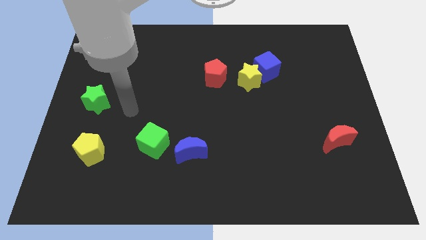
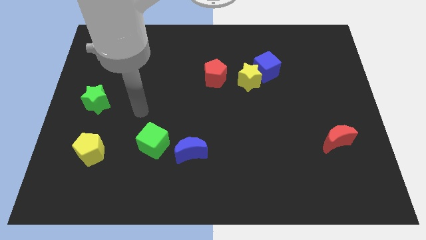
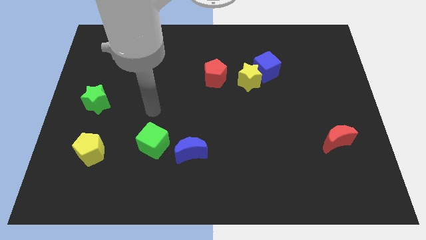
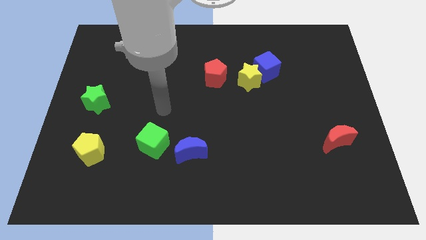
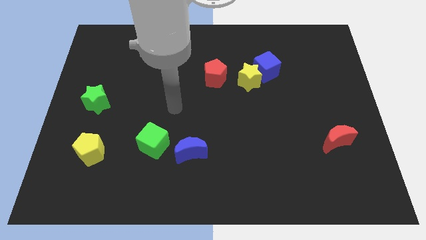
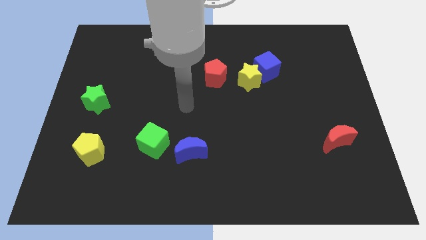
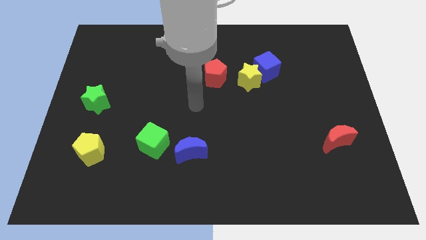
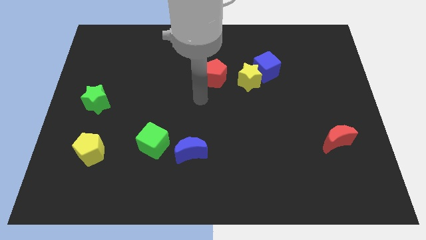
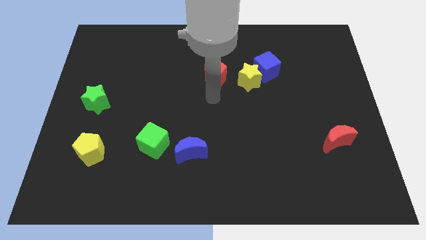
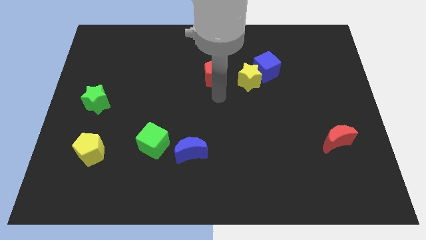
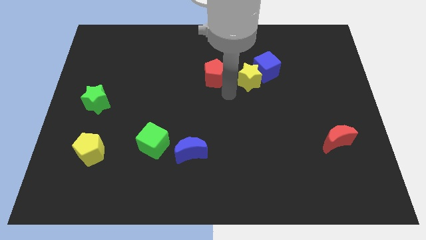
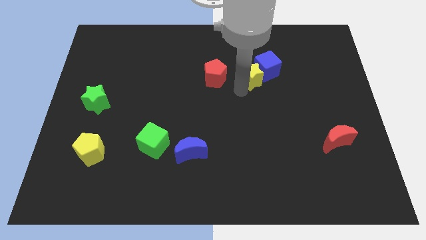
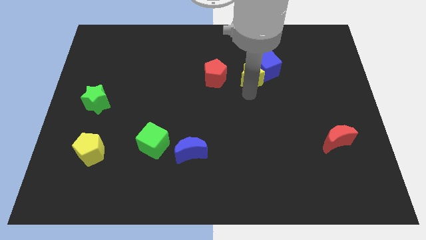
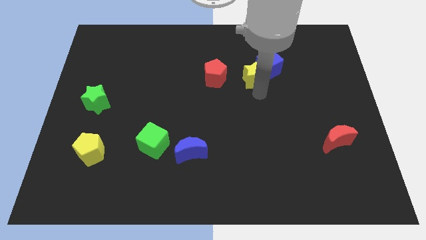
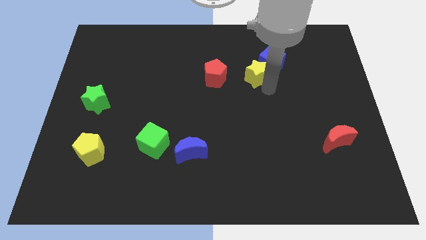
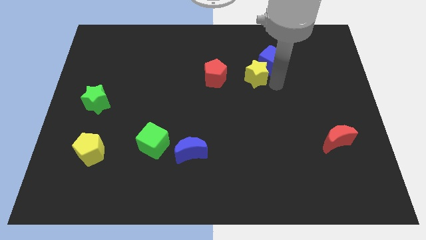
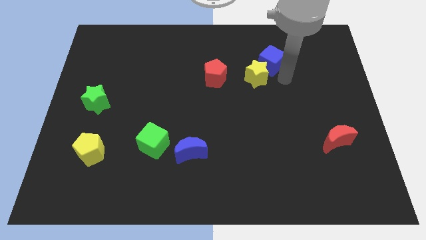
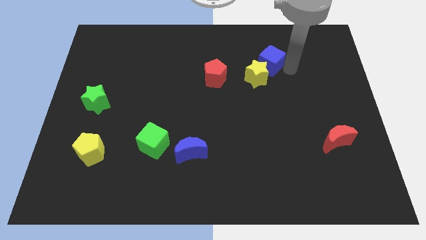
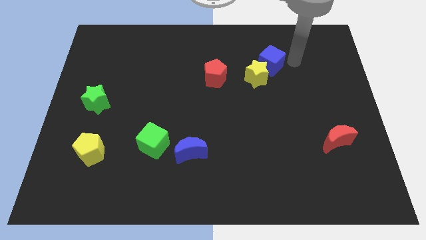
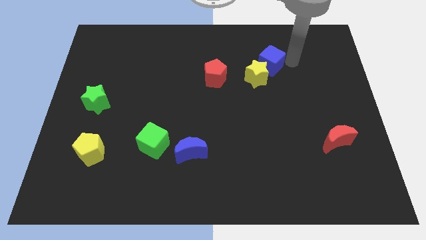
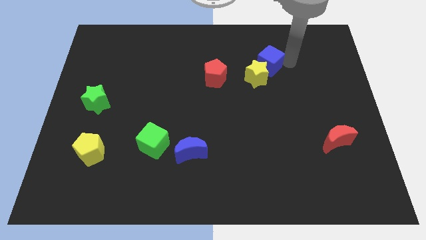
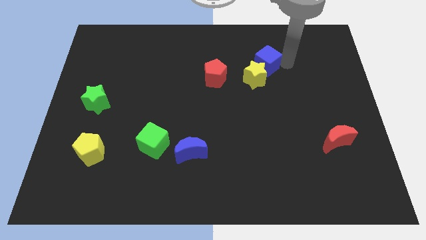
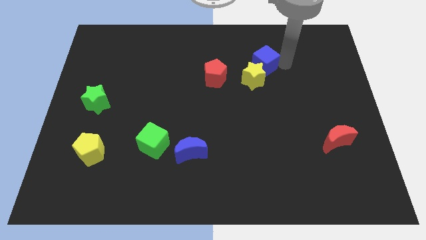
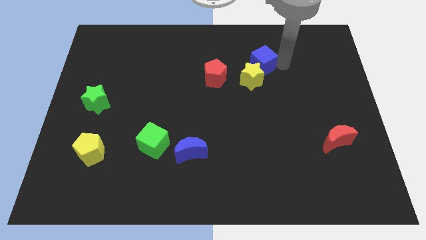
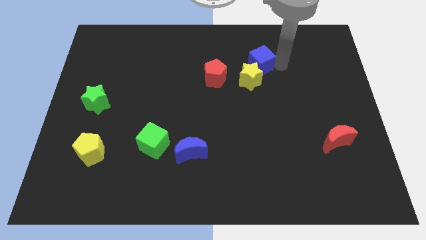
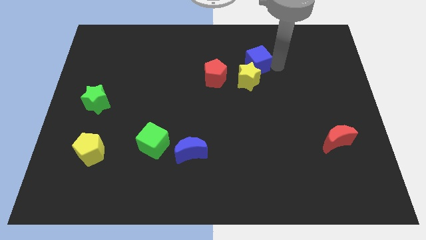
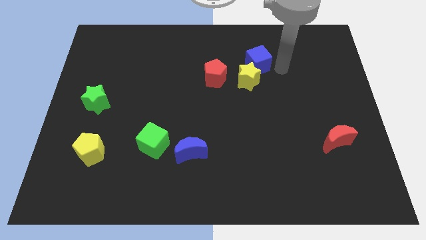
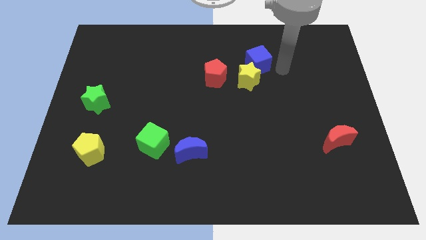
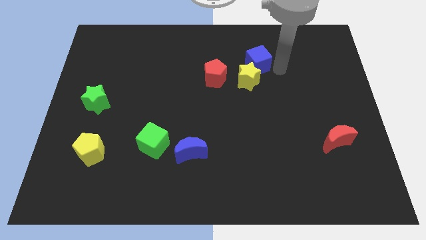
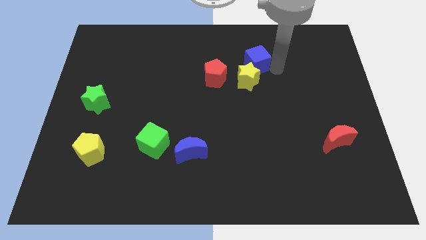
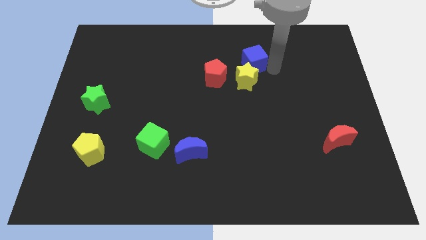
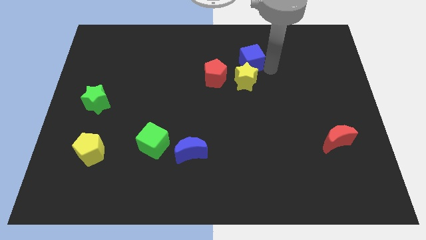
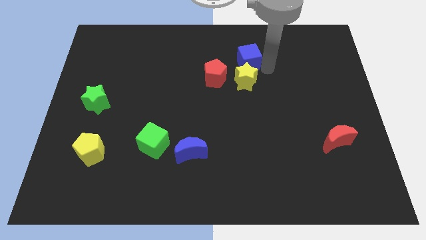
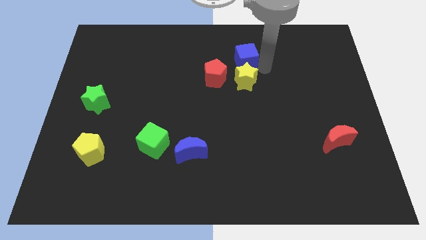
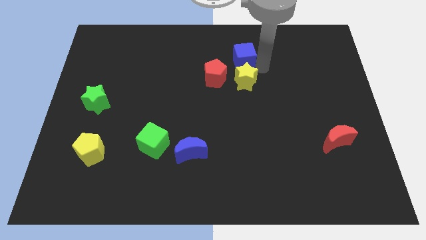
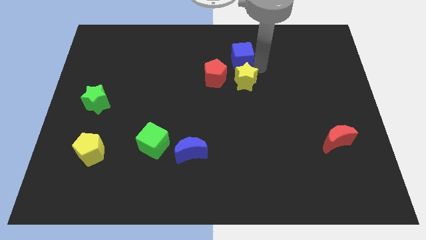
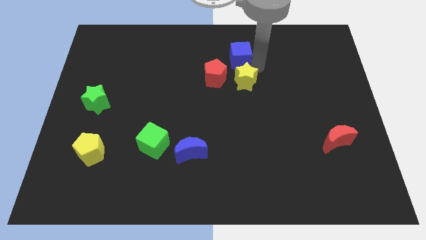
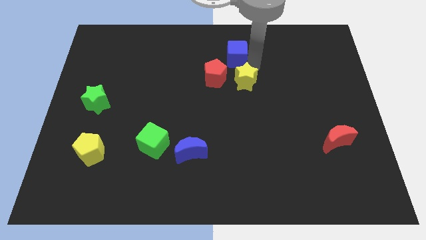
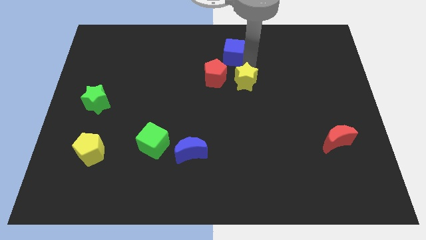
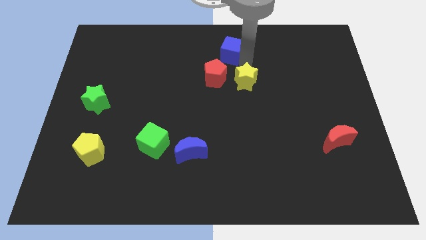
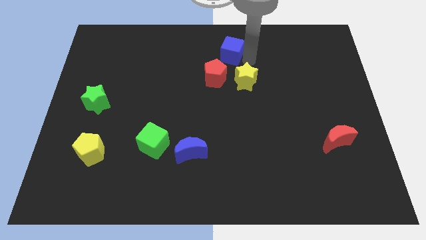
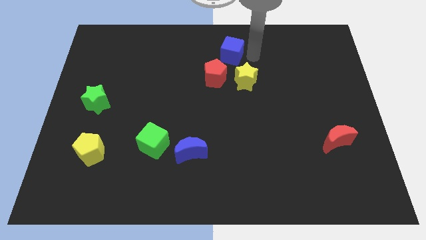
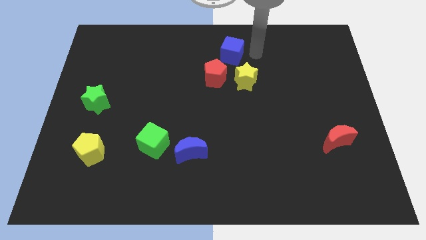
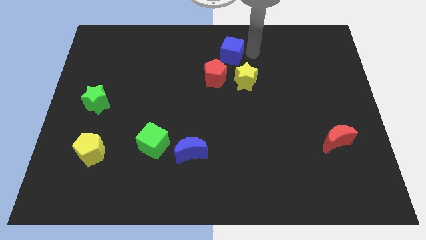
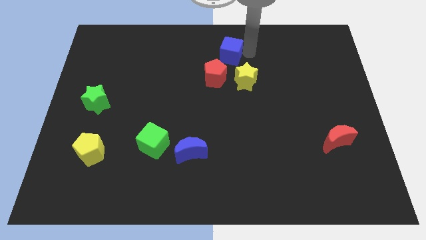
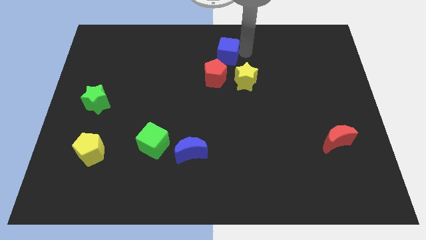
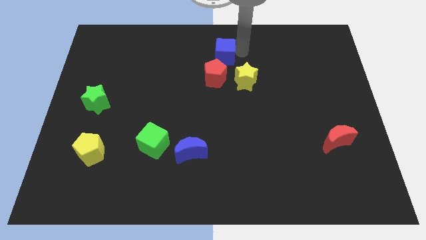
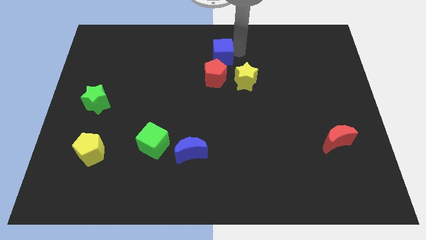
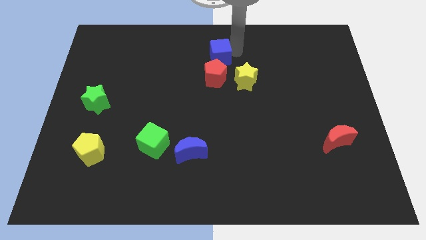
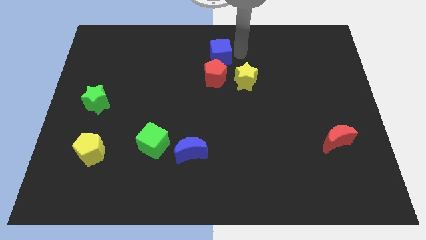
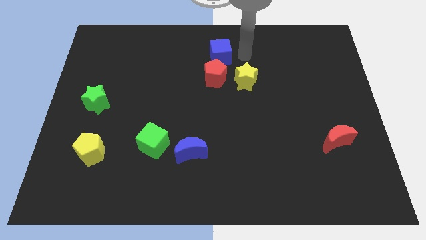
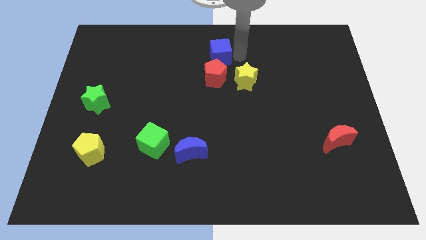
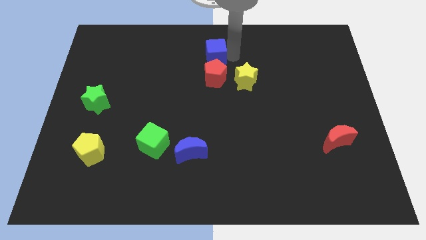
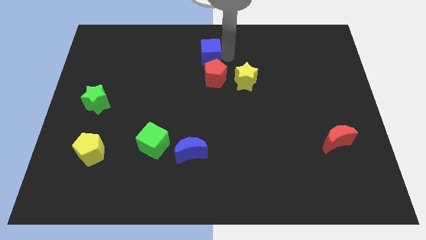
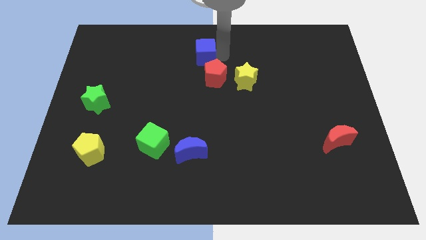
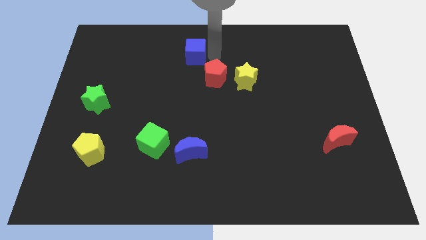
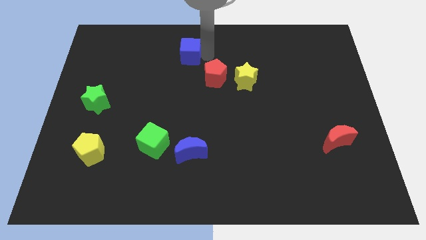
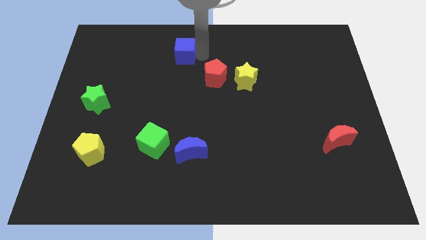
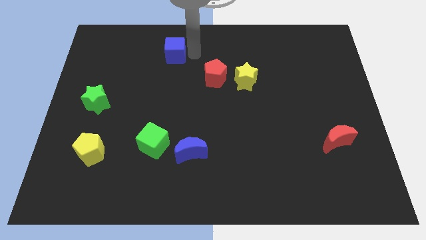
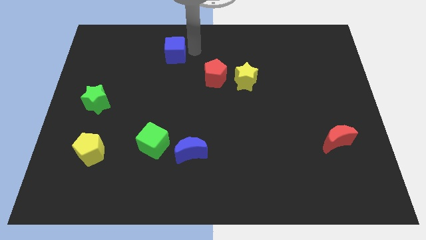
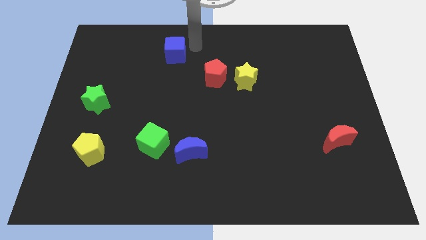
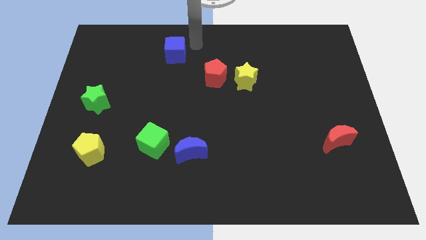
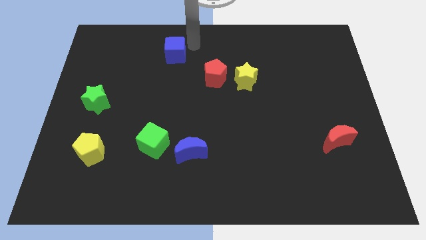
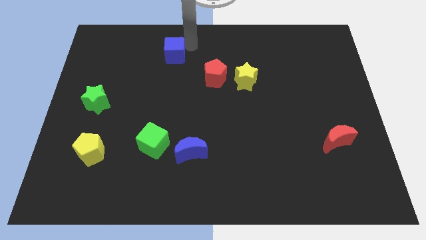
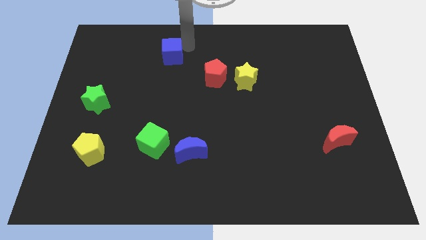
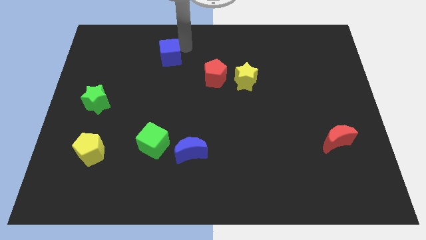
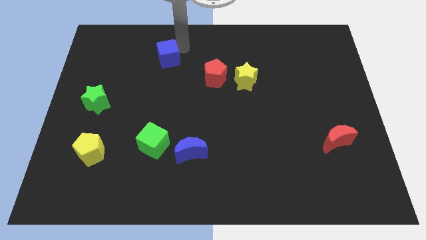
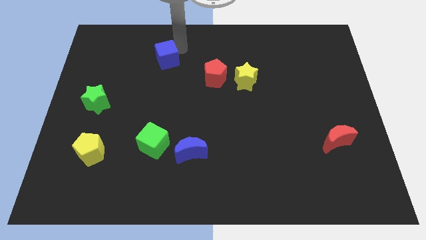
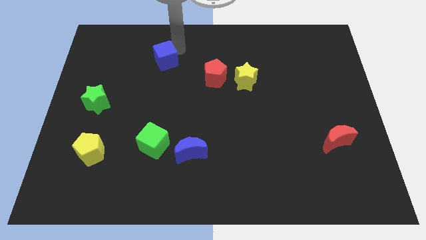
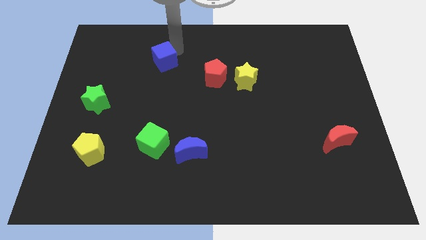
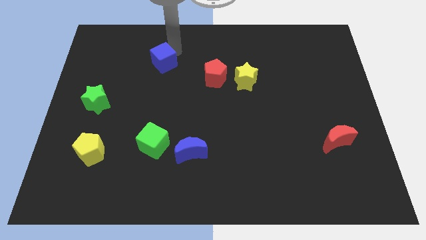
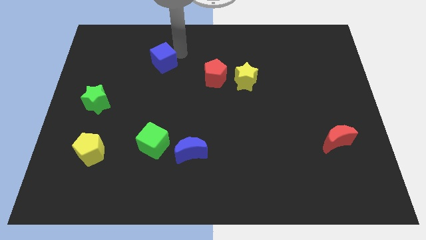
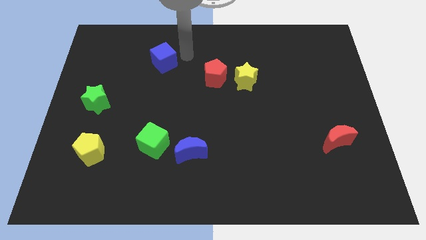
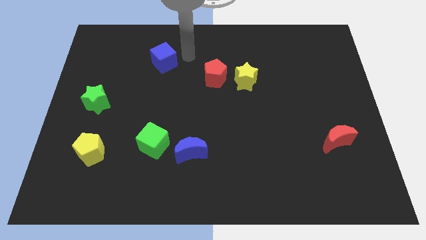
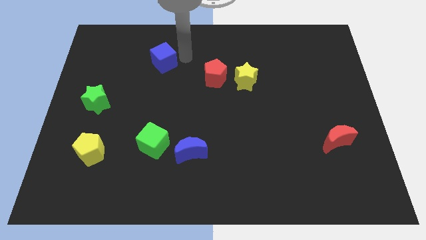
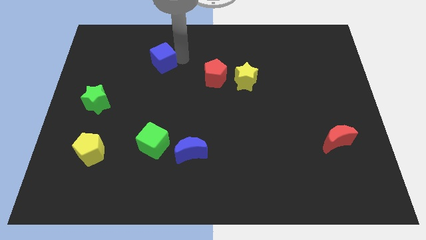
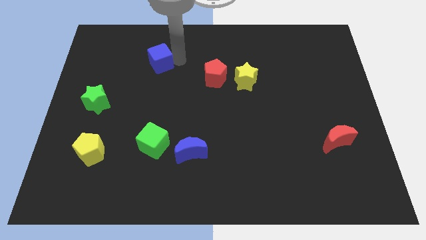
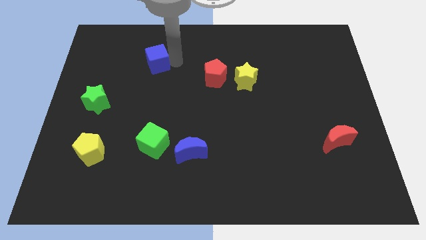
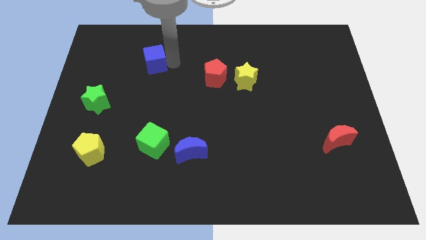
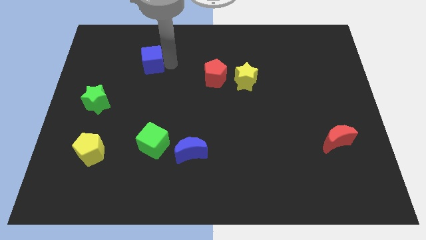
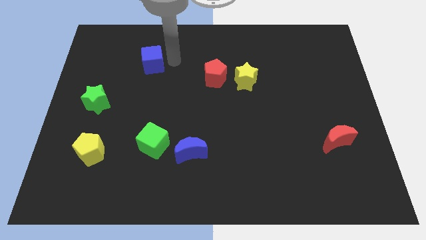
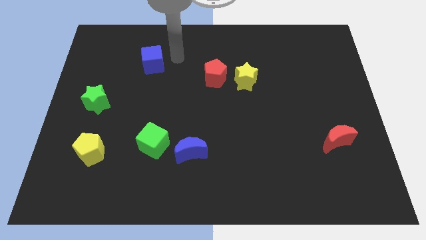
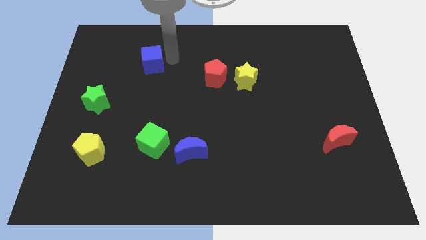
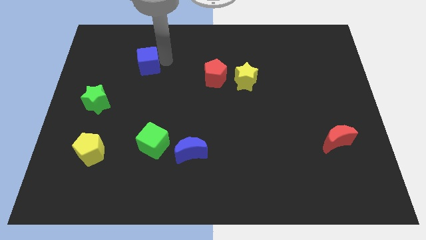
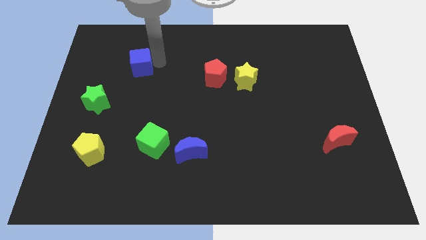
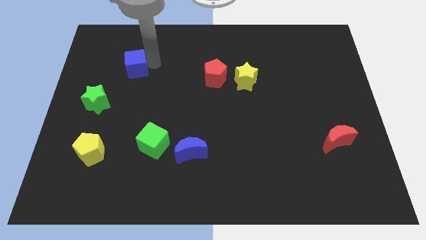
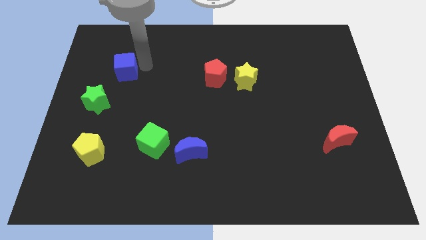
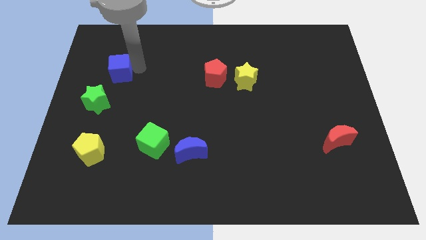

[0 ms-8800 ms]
move the blue cube to the top of the green star
